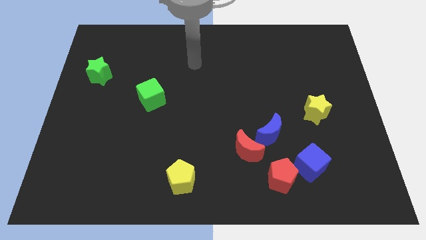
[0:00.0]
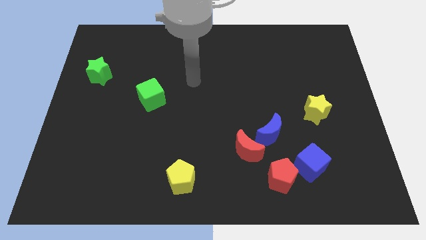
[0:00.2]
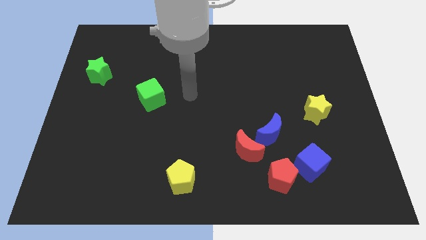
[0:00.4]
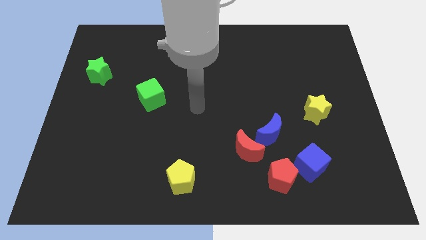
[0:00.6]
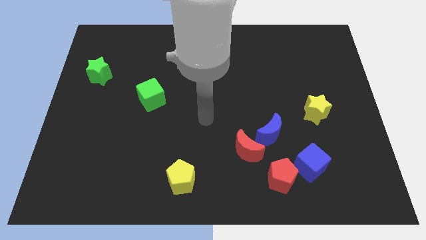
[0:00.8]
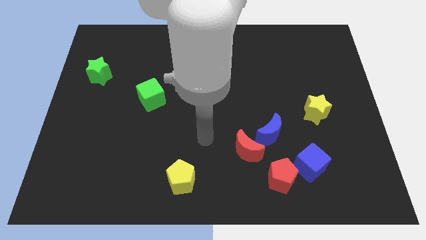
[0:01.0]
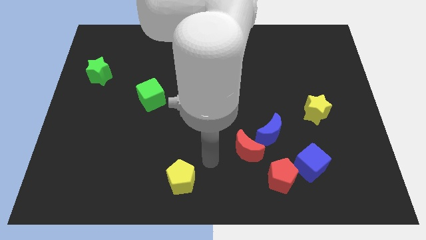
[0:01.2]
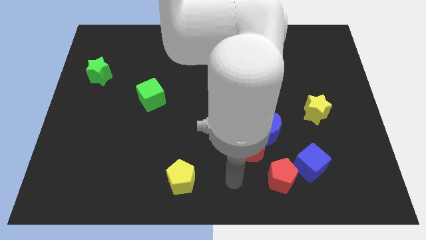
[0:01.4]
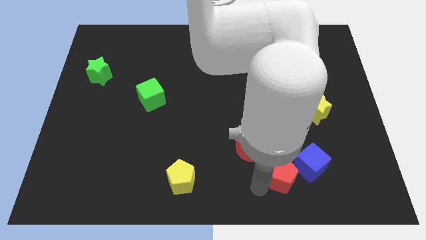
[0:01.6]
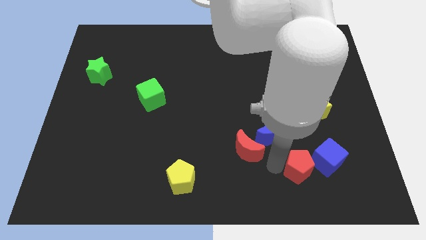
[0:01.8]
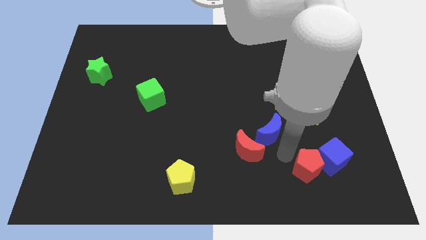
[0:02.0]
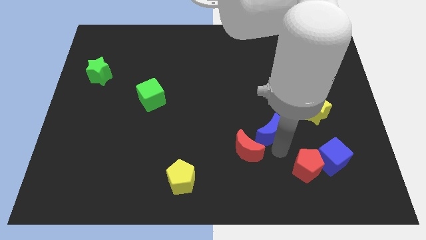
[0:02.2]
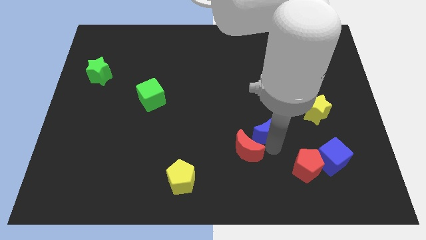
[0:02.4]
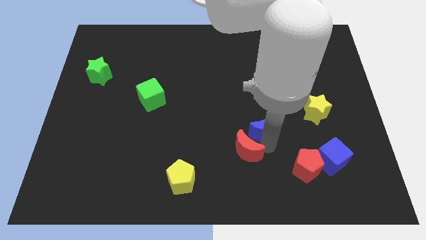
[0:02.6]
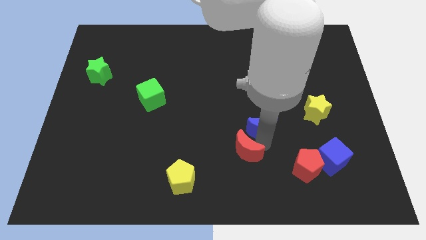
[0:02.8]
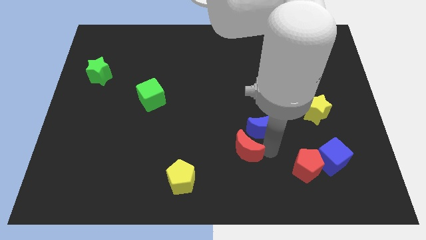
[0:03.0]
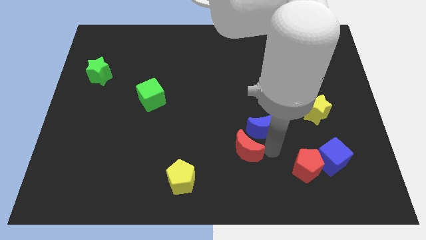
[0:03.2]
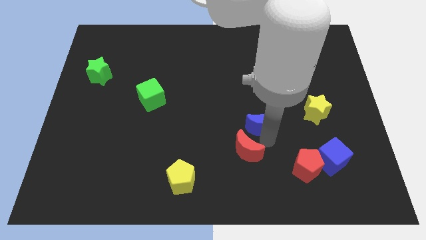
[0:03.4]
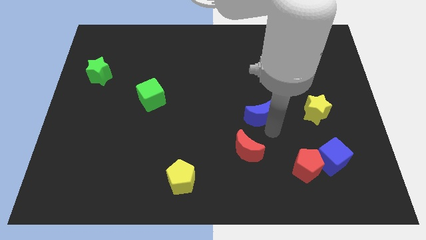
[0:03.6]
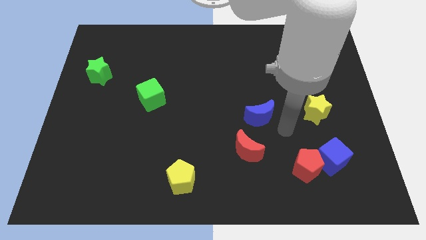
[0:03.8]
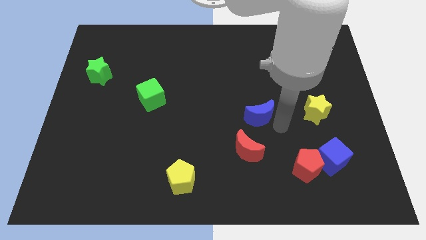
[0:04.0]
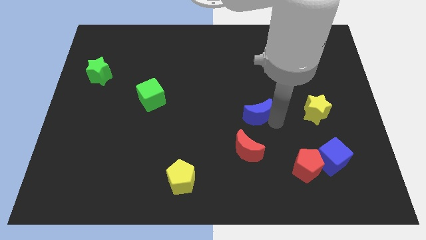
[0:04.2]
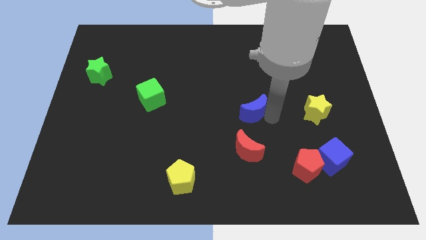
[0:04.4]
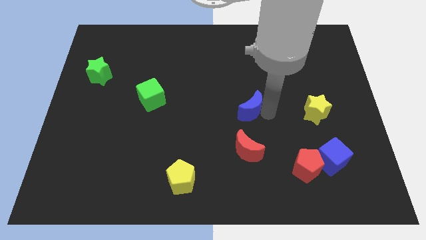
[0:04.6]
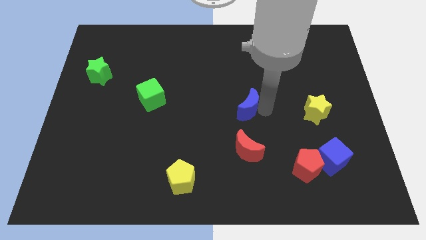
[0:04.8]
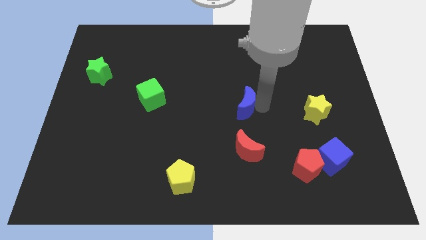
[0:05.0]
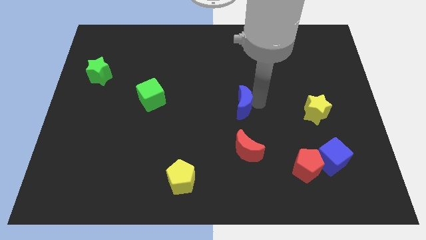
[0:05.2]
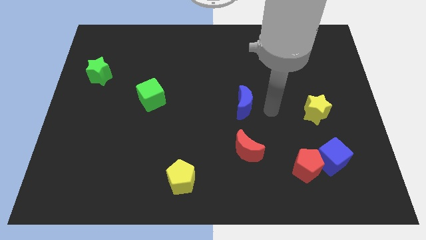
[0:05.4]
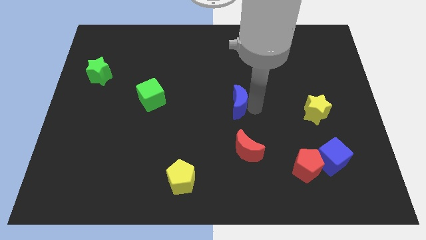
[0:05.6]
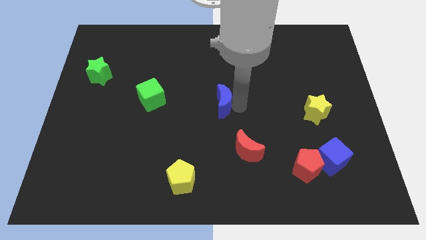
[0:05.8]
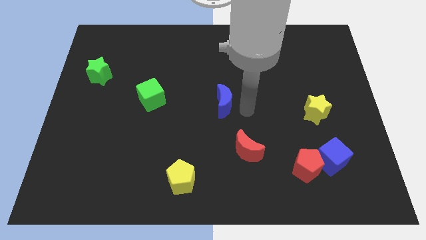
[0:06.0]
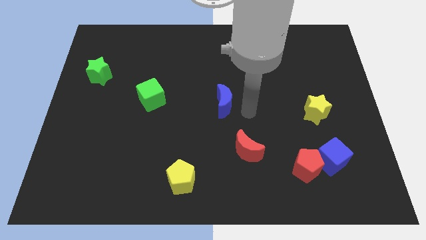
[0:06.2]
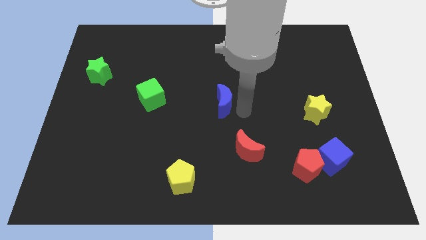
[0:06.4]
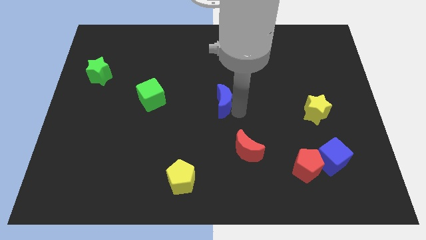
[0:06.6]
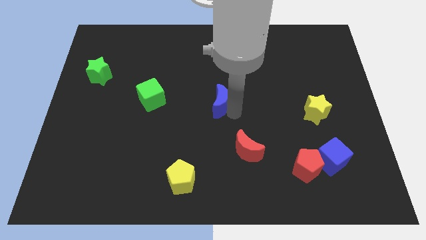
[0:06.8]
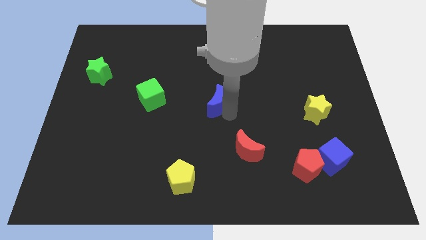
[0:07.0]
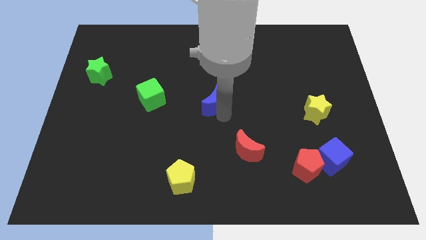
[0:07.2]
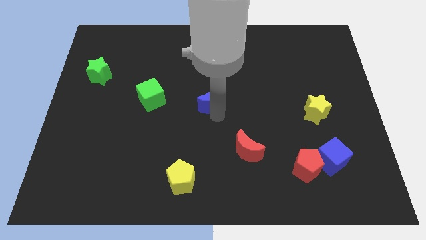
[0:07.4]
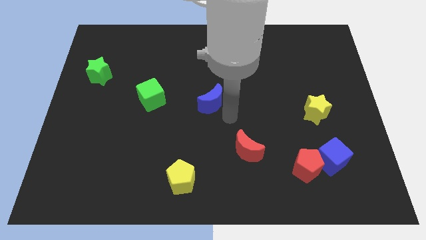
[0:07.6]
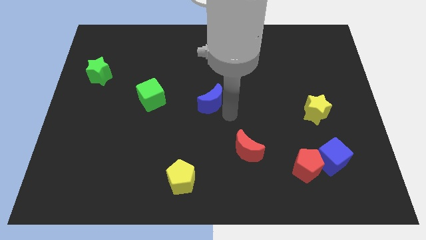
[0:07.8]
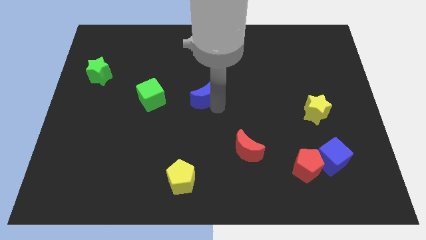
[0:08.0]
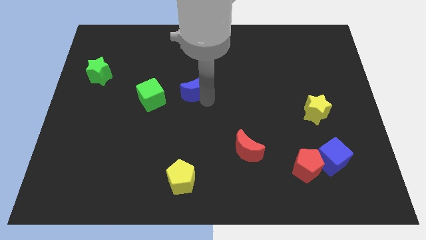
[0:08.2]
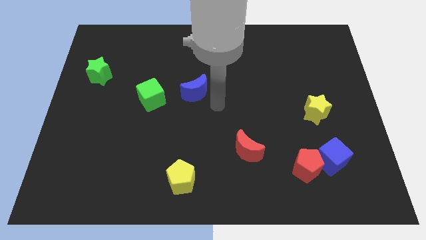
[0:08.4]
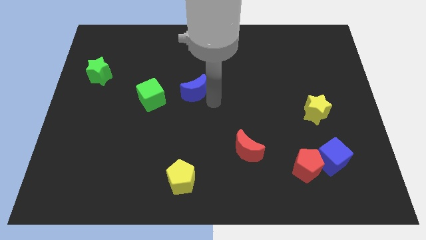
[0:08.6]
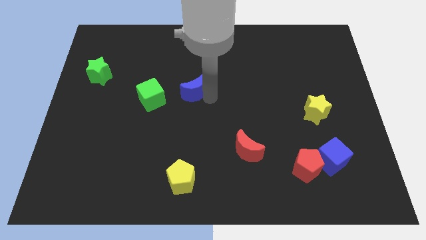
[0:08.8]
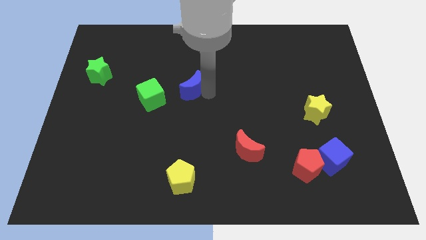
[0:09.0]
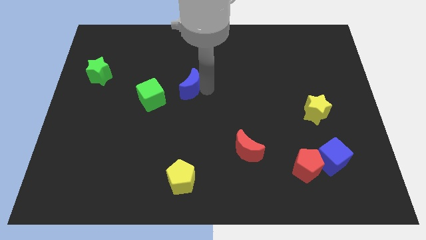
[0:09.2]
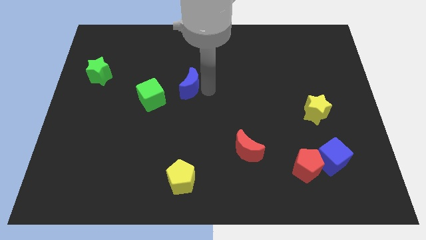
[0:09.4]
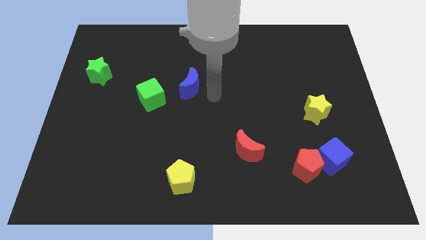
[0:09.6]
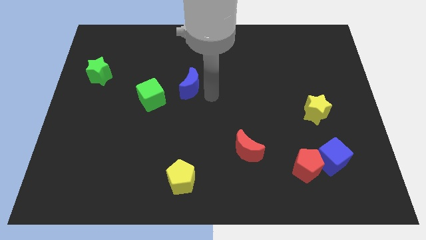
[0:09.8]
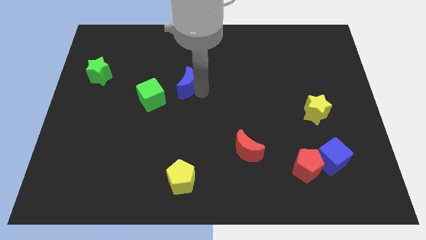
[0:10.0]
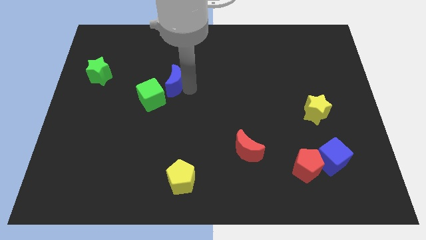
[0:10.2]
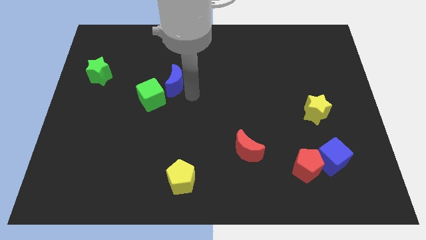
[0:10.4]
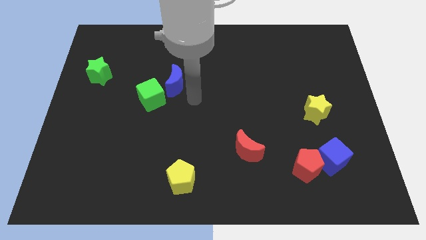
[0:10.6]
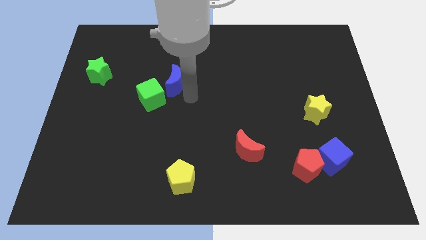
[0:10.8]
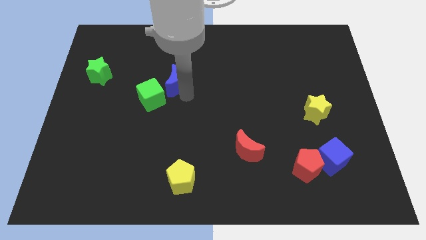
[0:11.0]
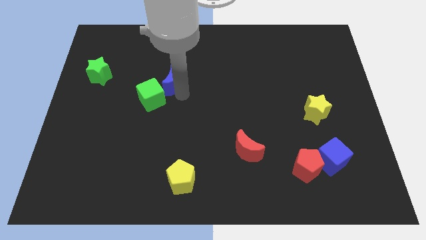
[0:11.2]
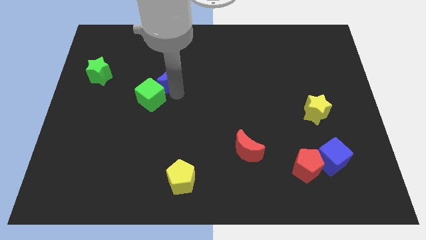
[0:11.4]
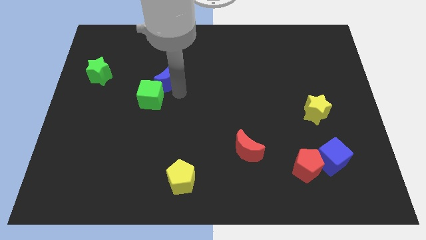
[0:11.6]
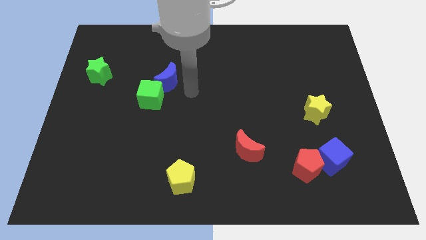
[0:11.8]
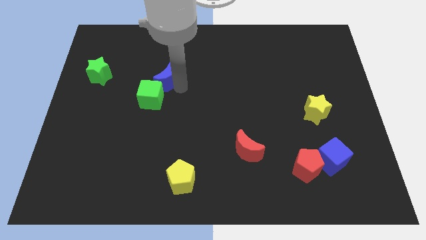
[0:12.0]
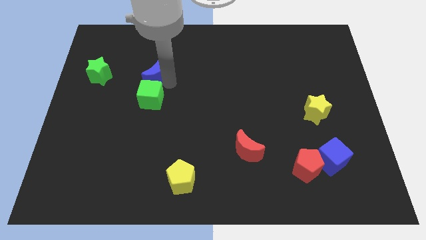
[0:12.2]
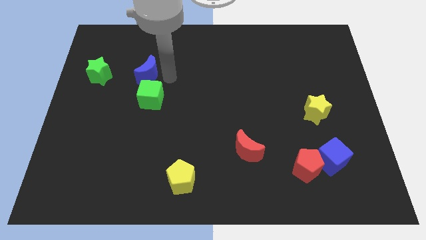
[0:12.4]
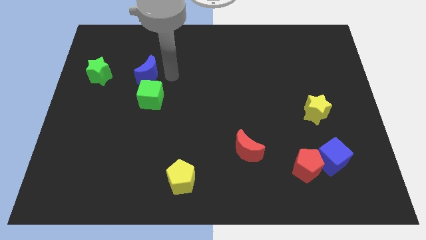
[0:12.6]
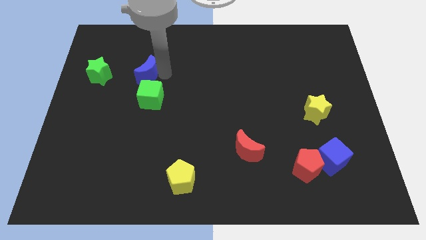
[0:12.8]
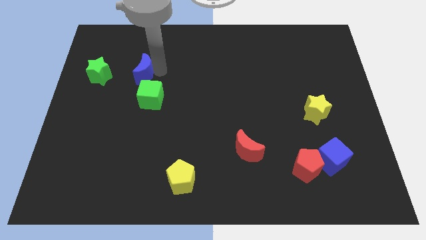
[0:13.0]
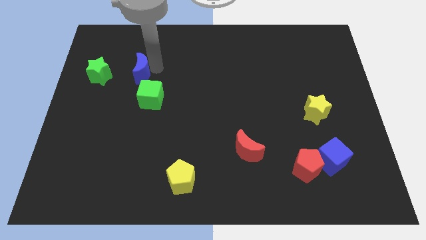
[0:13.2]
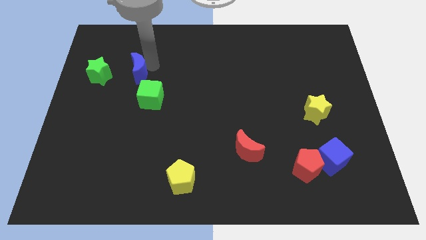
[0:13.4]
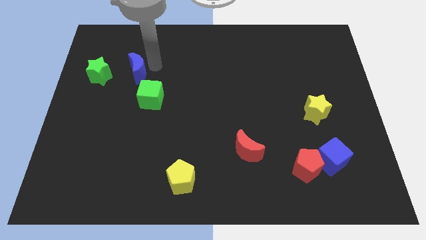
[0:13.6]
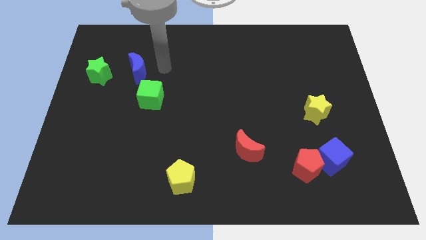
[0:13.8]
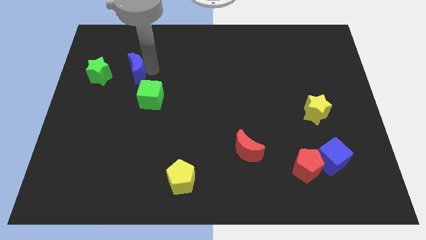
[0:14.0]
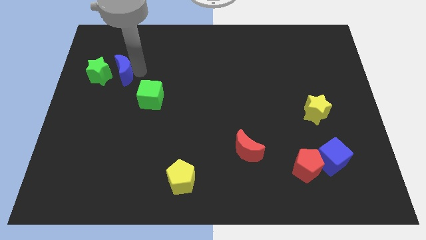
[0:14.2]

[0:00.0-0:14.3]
push the blue moon to the green star
